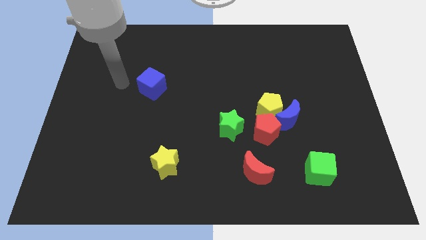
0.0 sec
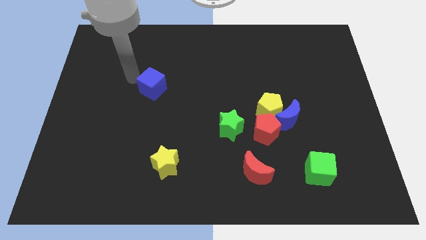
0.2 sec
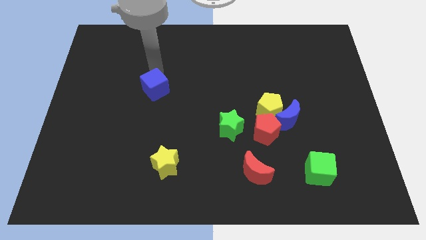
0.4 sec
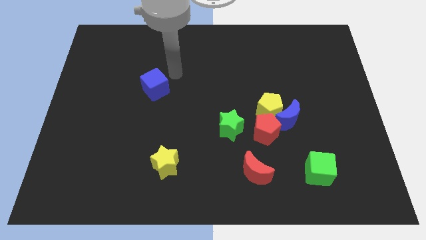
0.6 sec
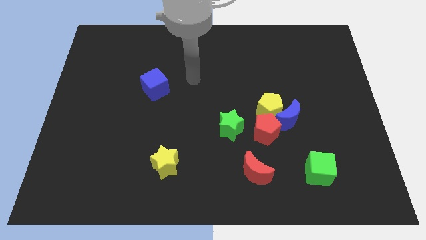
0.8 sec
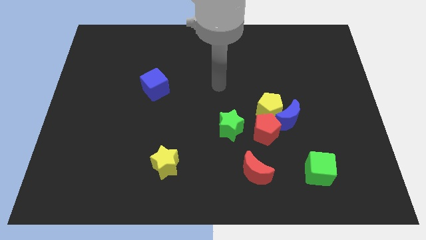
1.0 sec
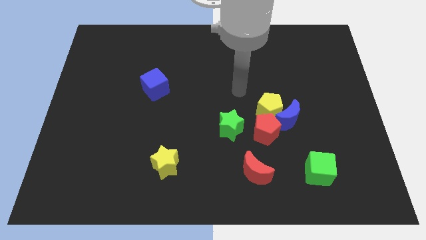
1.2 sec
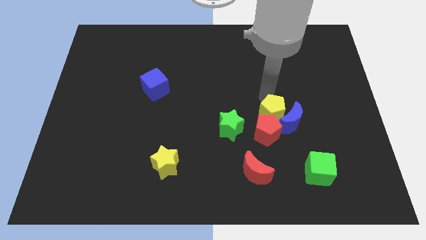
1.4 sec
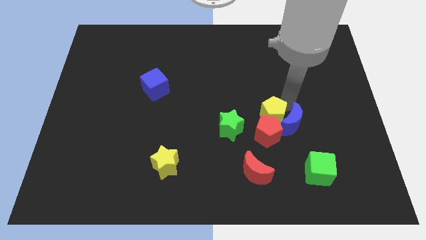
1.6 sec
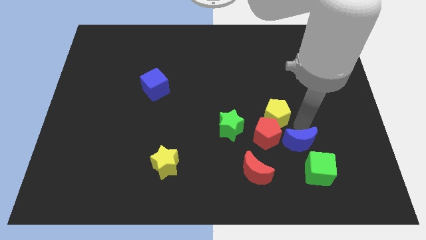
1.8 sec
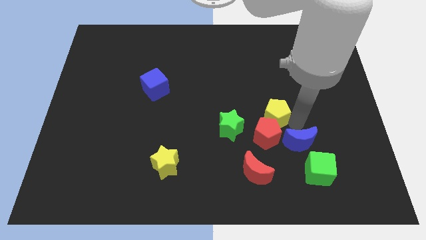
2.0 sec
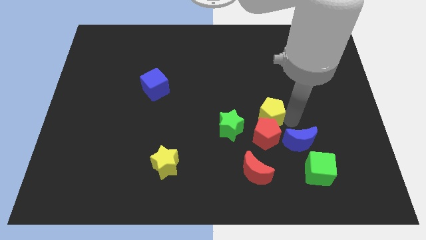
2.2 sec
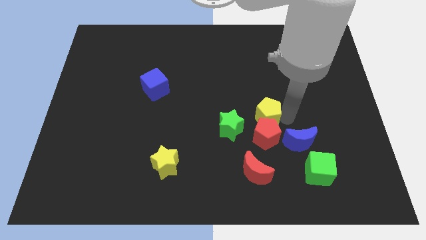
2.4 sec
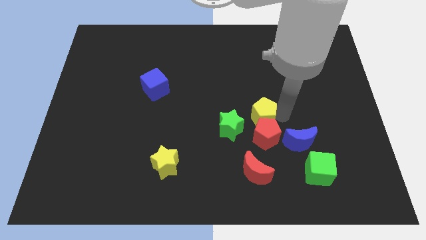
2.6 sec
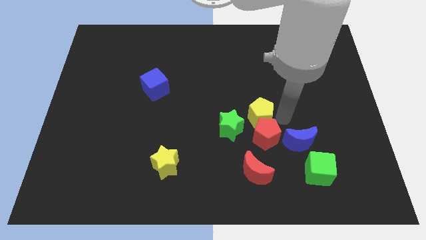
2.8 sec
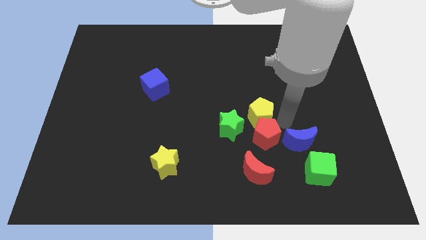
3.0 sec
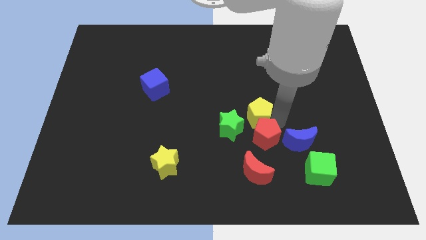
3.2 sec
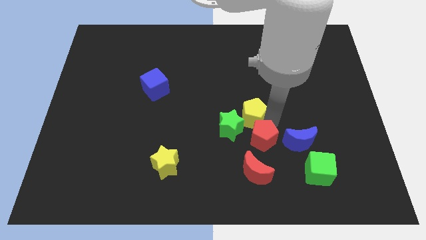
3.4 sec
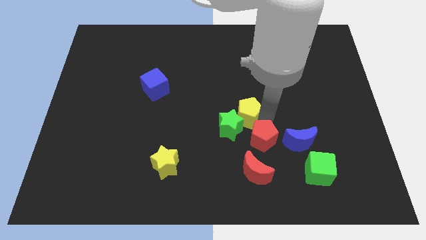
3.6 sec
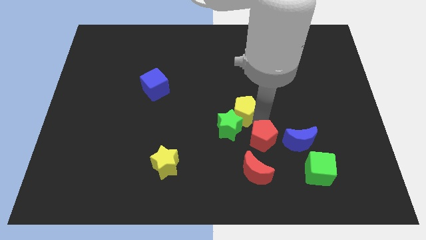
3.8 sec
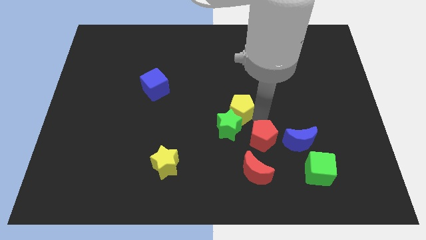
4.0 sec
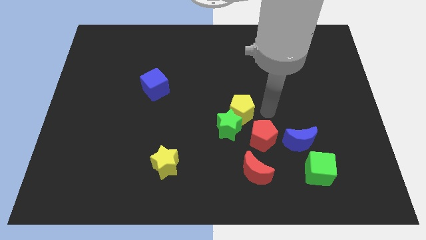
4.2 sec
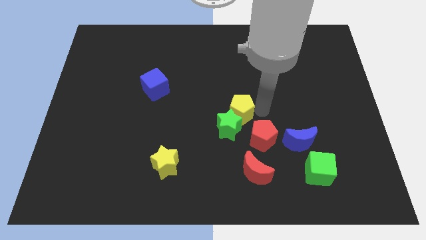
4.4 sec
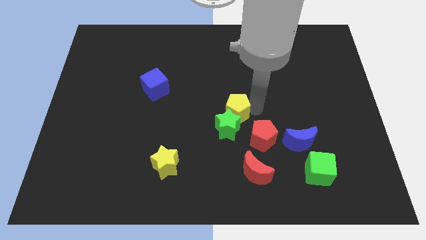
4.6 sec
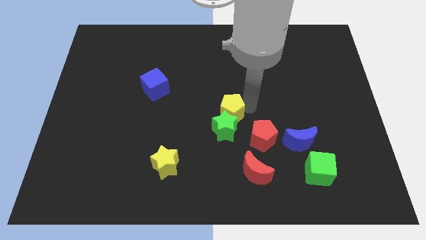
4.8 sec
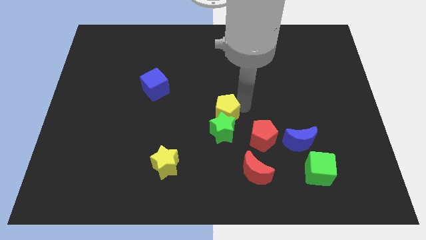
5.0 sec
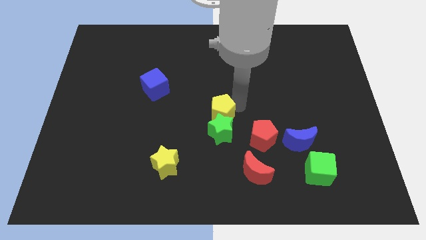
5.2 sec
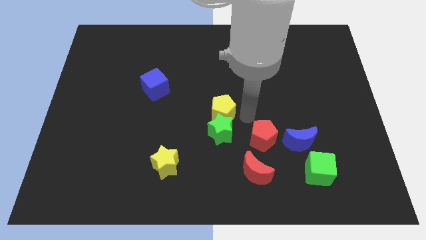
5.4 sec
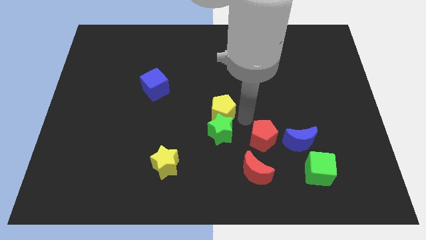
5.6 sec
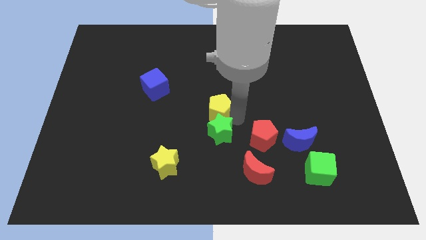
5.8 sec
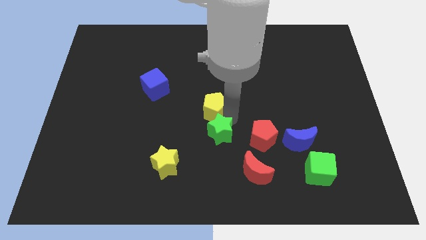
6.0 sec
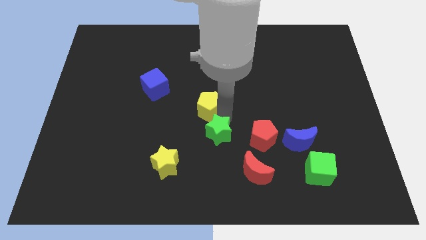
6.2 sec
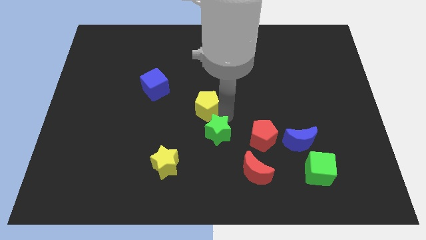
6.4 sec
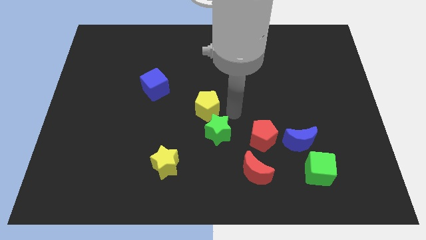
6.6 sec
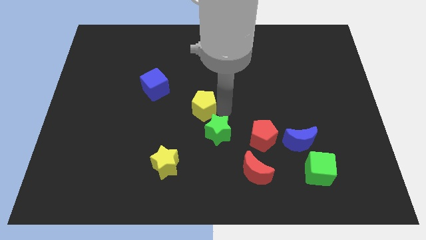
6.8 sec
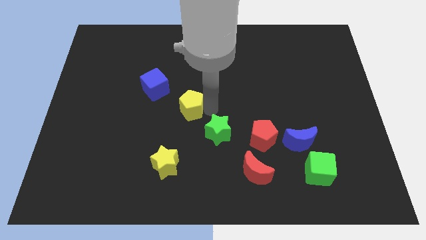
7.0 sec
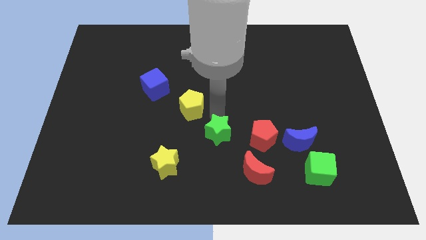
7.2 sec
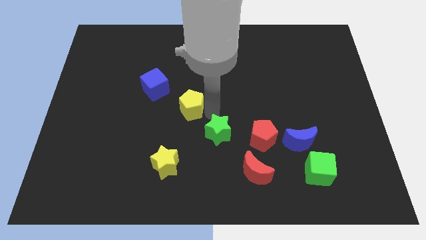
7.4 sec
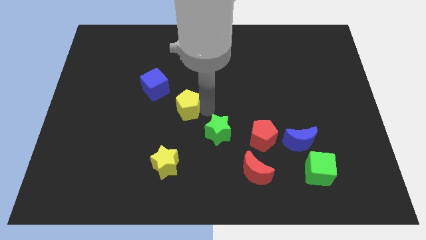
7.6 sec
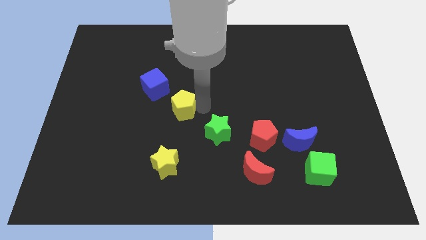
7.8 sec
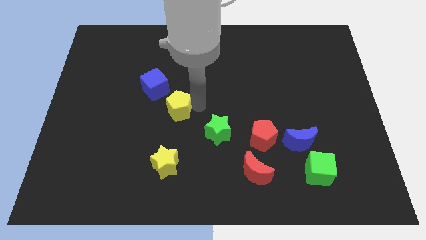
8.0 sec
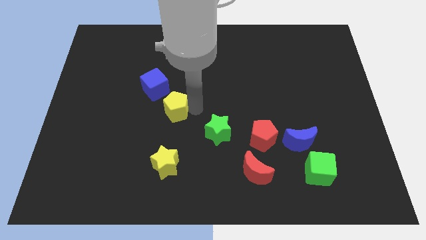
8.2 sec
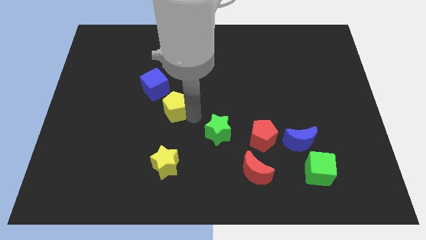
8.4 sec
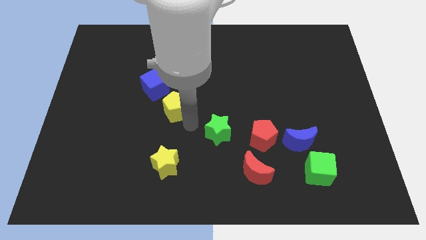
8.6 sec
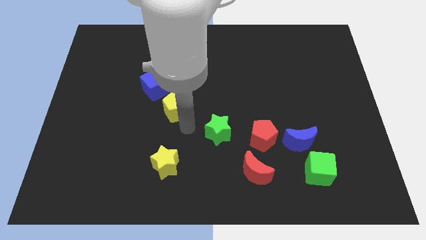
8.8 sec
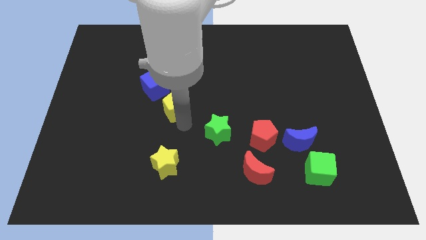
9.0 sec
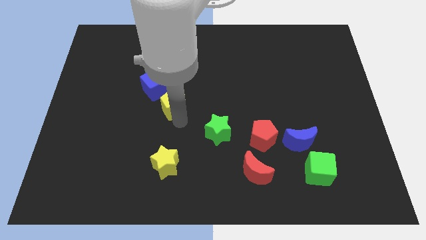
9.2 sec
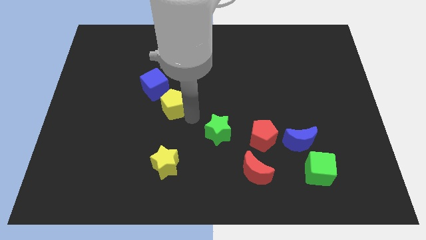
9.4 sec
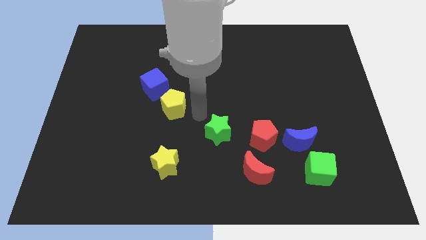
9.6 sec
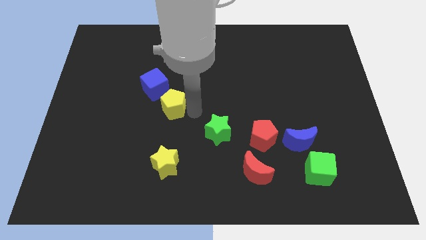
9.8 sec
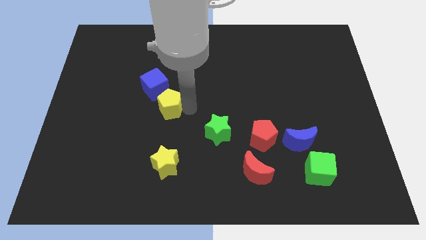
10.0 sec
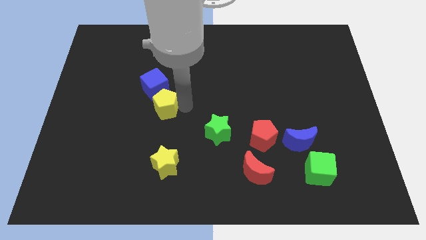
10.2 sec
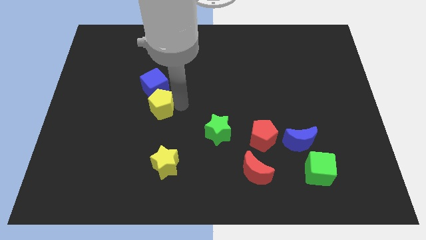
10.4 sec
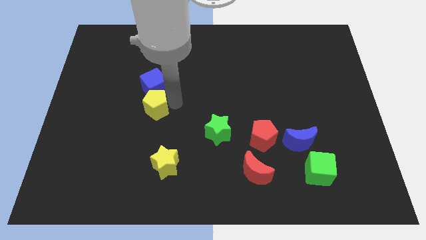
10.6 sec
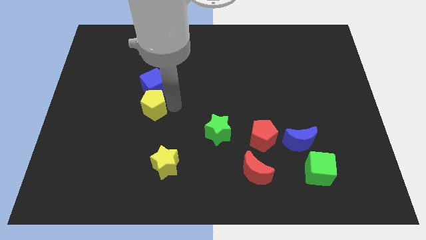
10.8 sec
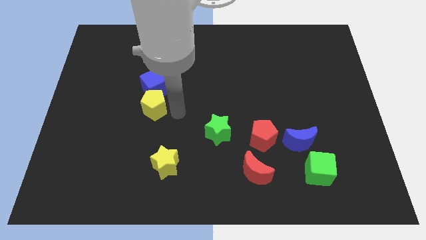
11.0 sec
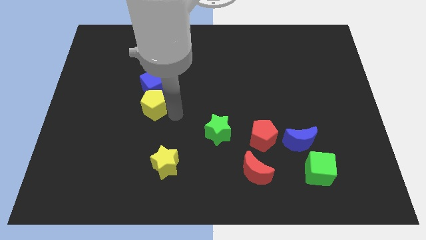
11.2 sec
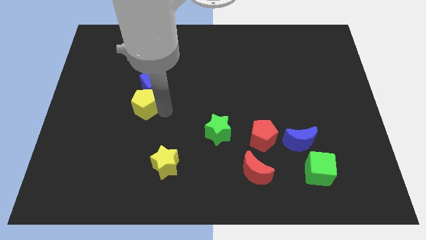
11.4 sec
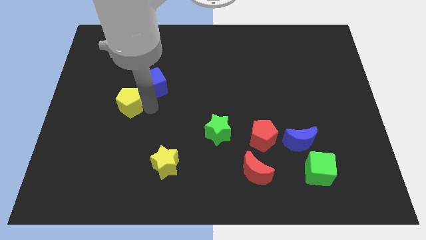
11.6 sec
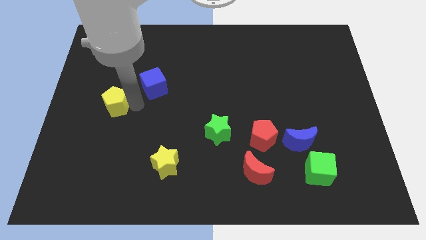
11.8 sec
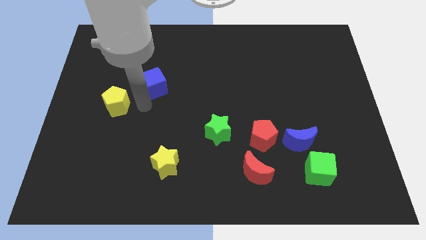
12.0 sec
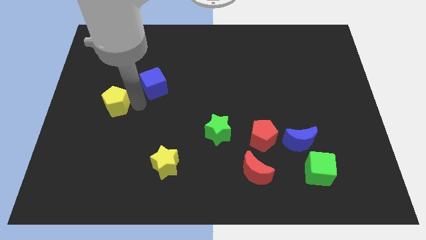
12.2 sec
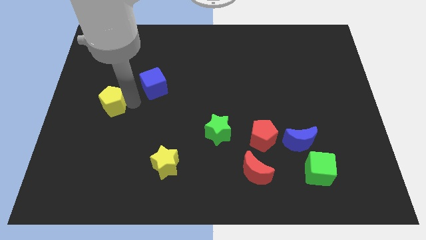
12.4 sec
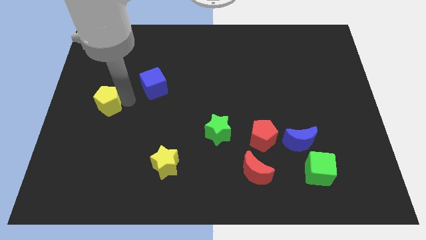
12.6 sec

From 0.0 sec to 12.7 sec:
move the yellow pentagon to the center left
